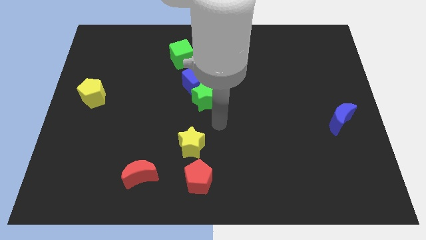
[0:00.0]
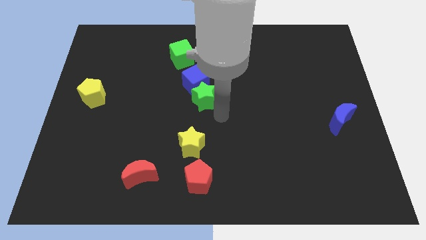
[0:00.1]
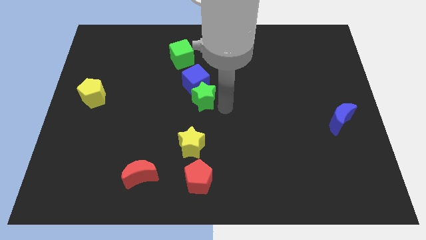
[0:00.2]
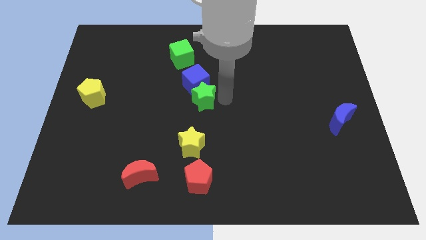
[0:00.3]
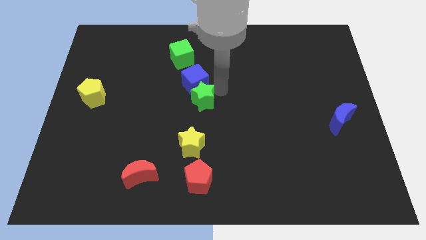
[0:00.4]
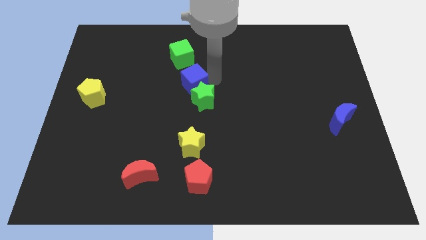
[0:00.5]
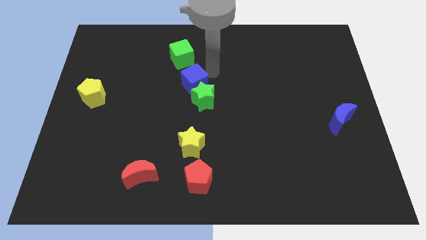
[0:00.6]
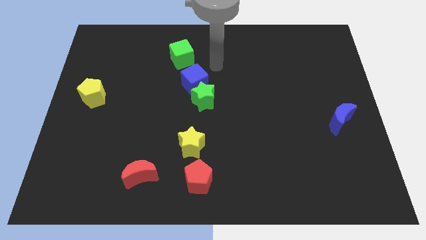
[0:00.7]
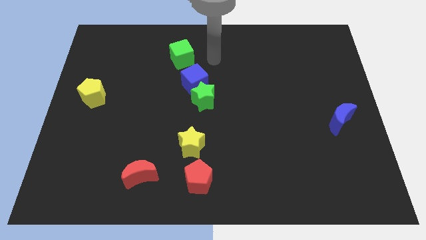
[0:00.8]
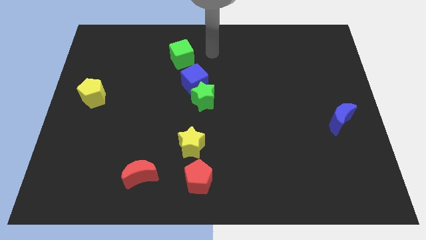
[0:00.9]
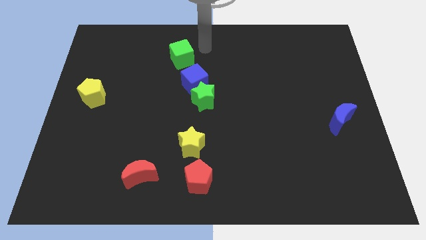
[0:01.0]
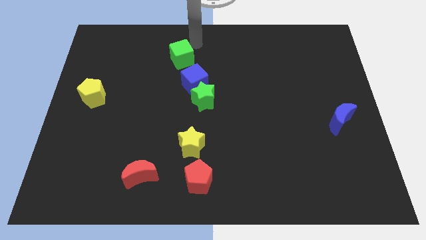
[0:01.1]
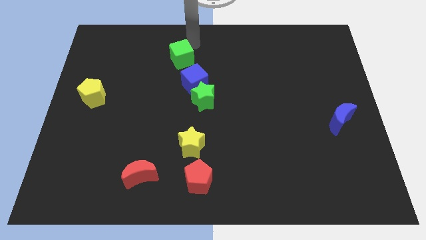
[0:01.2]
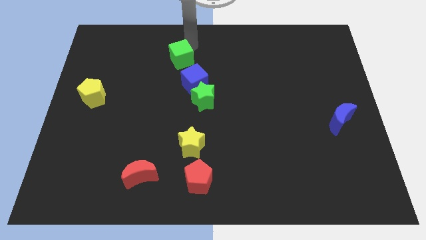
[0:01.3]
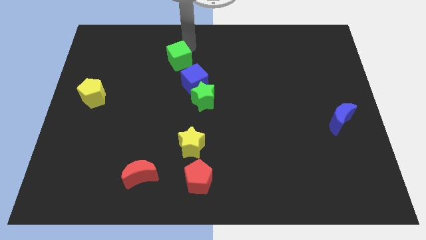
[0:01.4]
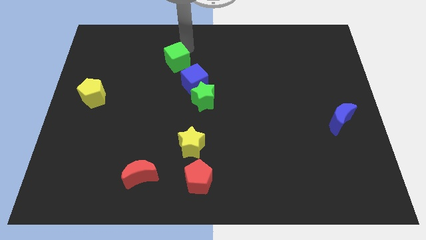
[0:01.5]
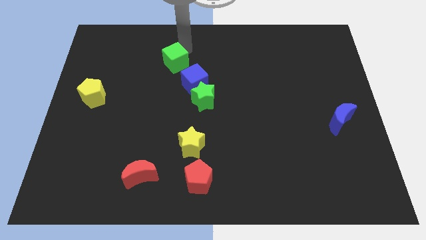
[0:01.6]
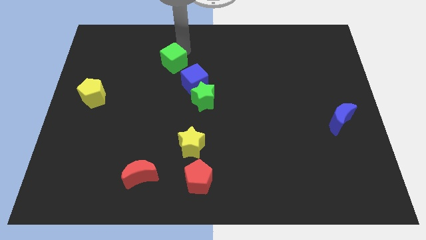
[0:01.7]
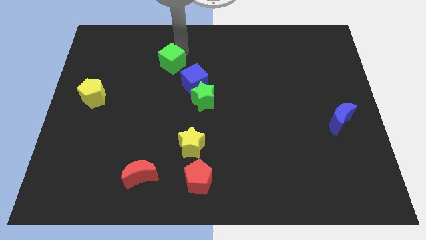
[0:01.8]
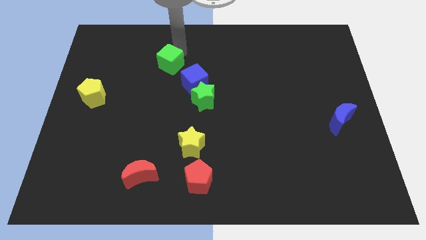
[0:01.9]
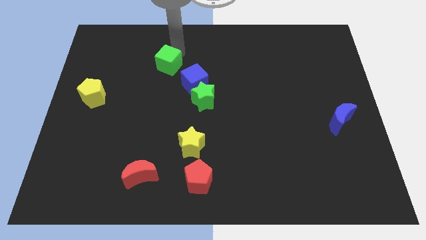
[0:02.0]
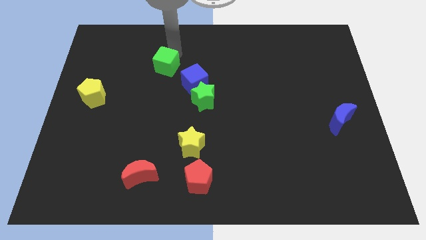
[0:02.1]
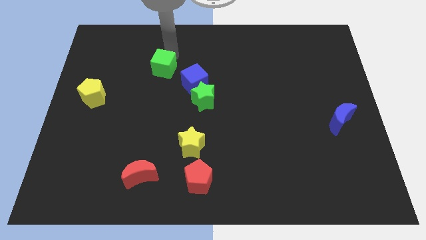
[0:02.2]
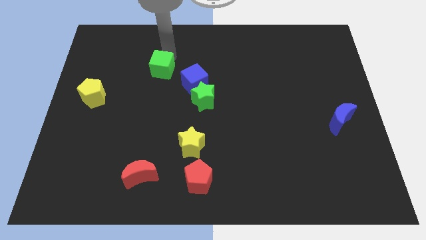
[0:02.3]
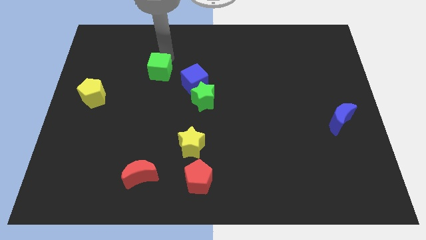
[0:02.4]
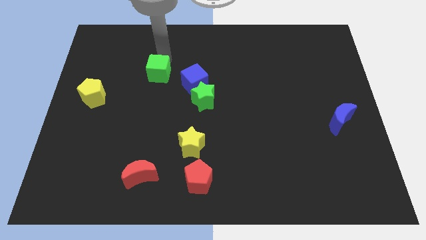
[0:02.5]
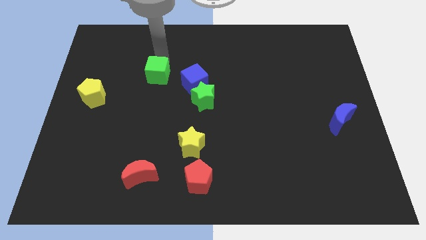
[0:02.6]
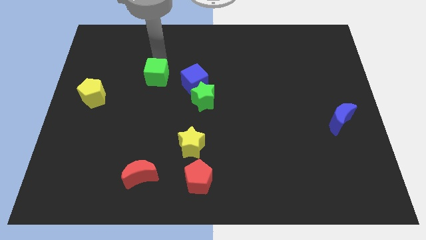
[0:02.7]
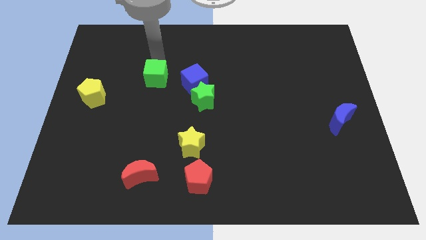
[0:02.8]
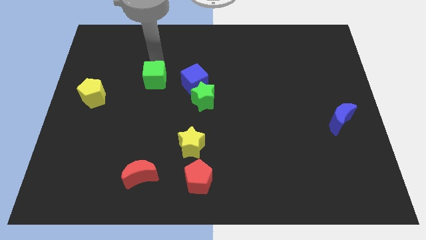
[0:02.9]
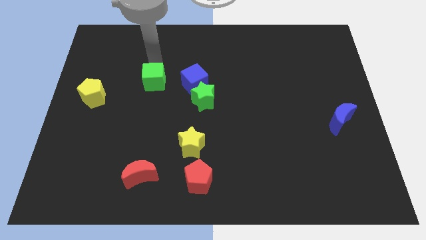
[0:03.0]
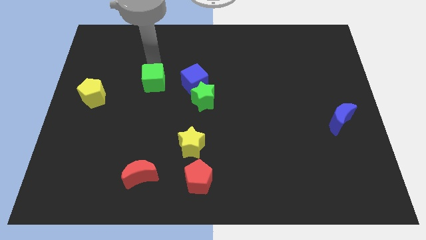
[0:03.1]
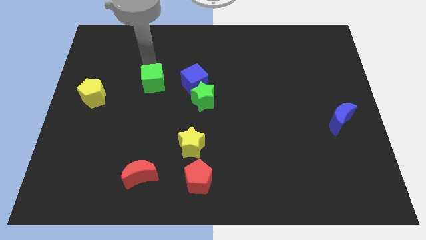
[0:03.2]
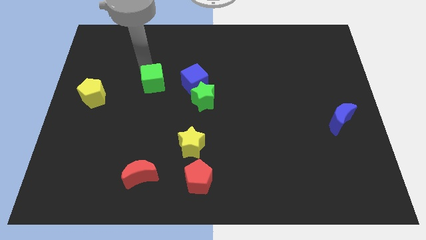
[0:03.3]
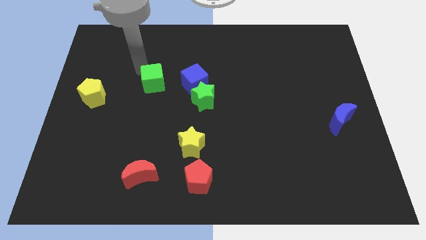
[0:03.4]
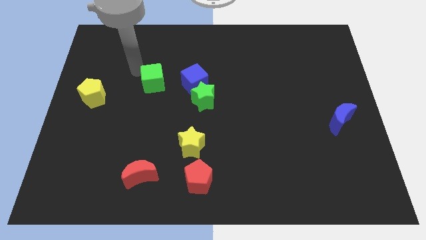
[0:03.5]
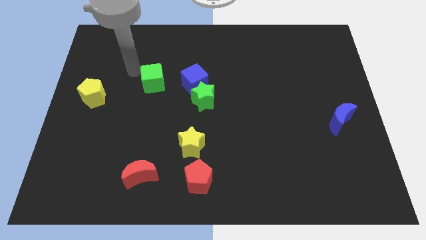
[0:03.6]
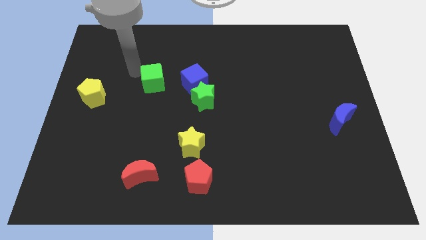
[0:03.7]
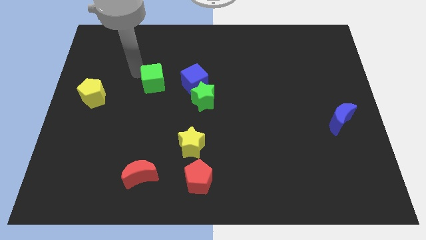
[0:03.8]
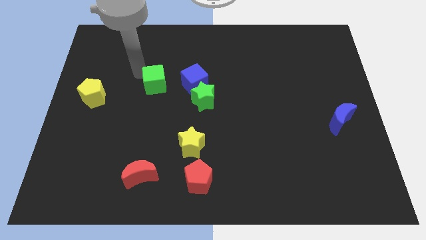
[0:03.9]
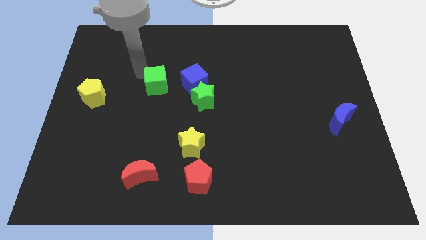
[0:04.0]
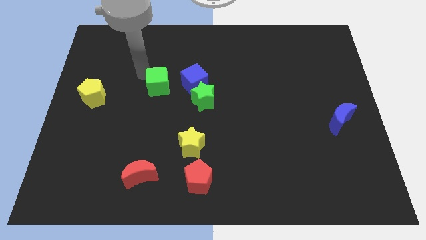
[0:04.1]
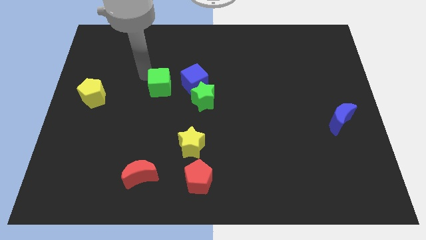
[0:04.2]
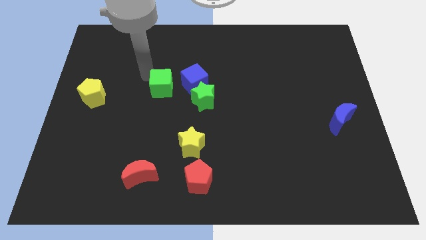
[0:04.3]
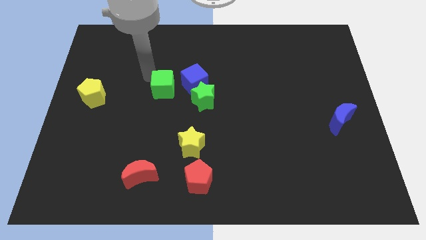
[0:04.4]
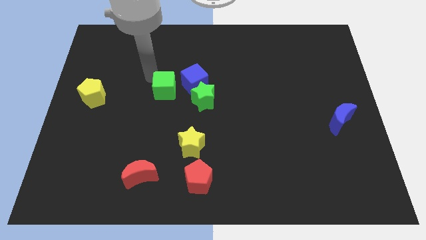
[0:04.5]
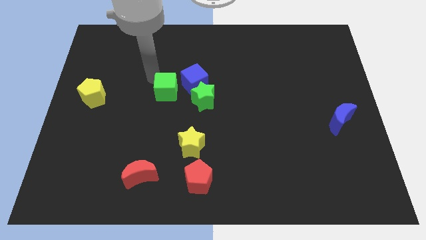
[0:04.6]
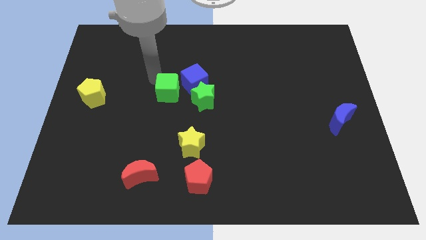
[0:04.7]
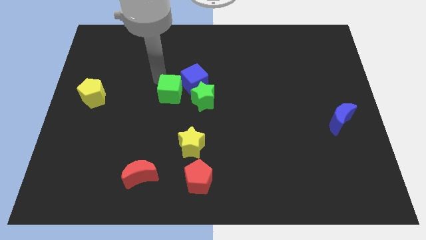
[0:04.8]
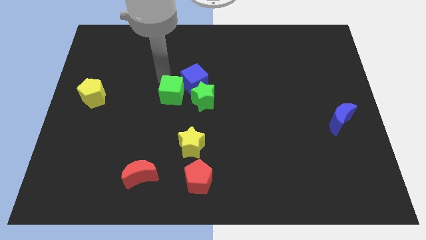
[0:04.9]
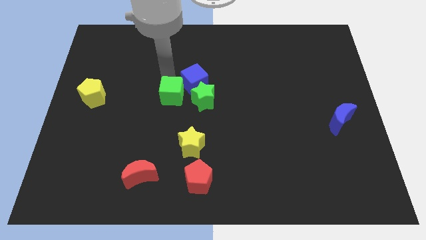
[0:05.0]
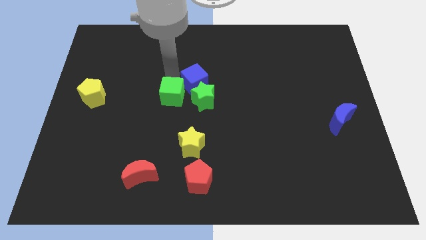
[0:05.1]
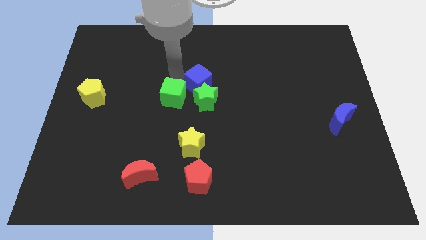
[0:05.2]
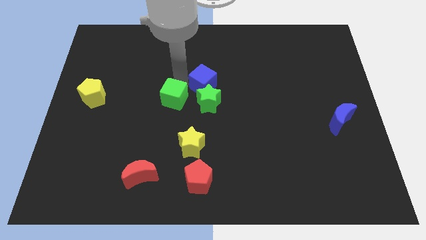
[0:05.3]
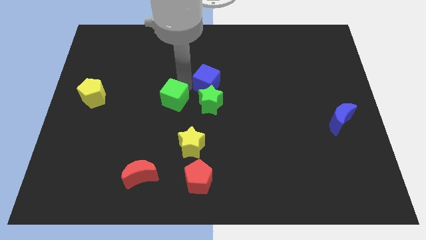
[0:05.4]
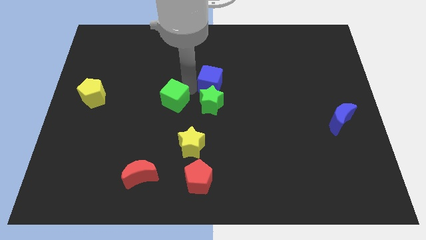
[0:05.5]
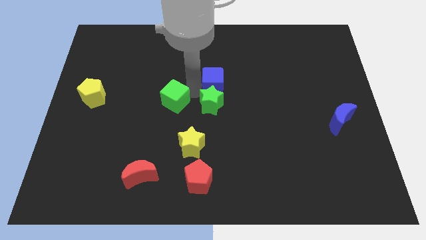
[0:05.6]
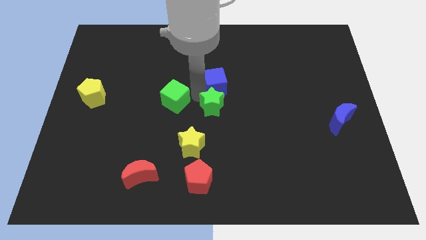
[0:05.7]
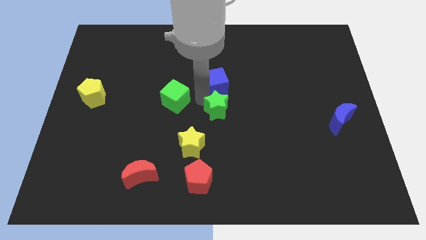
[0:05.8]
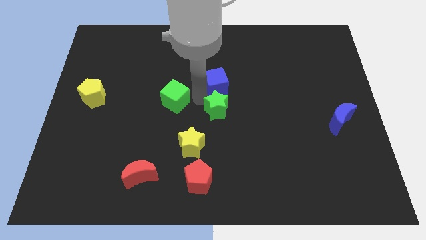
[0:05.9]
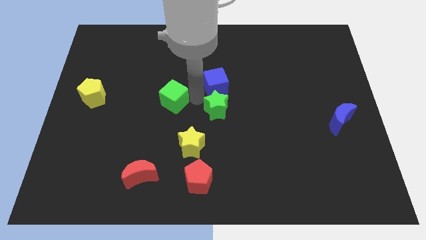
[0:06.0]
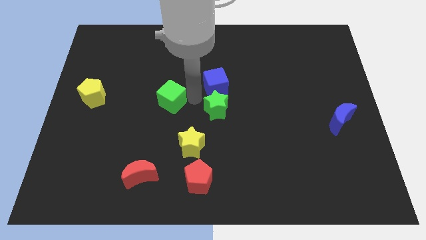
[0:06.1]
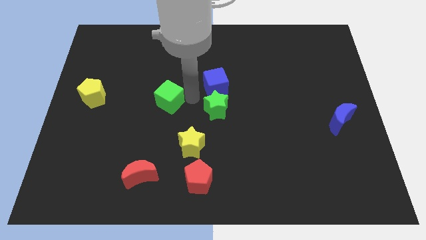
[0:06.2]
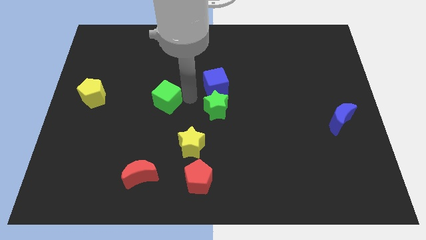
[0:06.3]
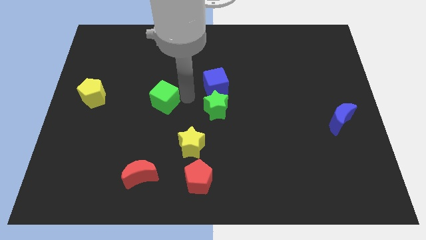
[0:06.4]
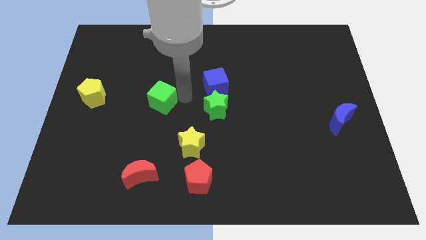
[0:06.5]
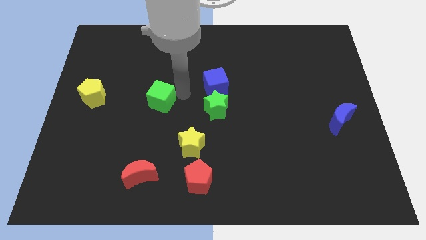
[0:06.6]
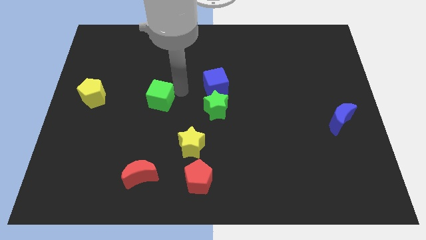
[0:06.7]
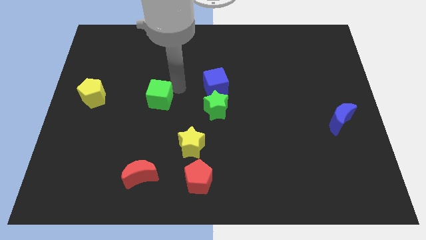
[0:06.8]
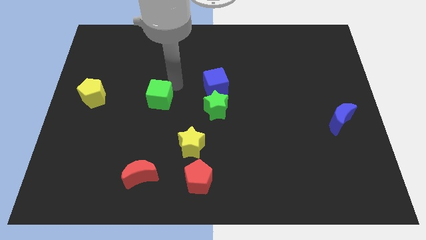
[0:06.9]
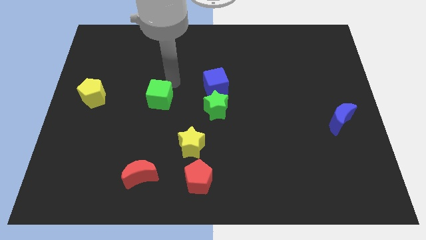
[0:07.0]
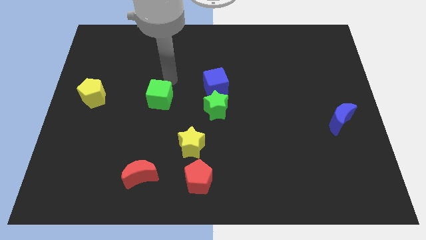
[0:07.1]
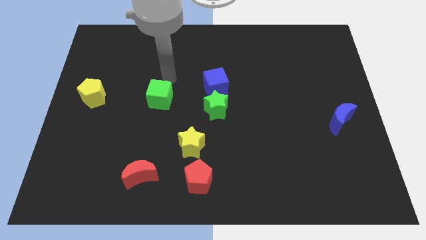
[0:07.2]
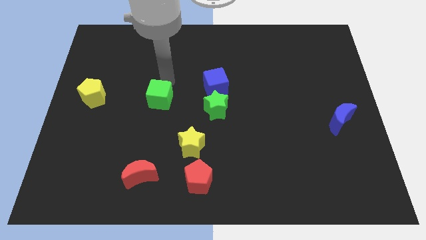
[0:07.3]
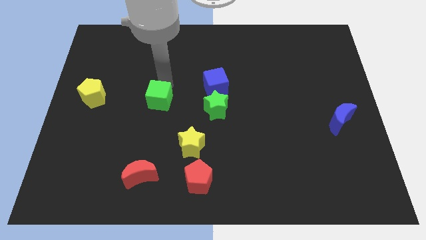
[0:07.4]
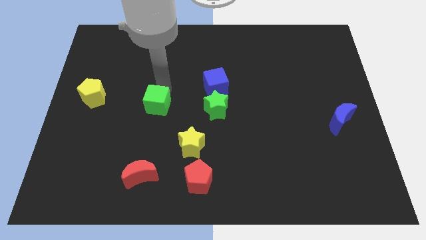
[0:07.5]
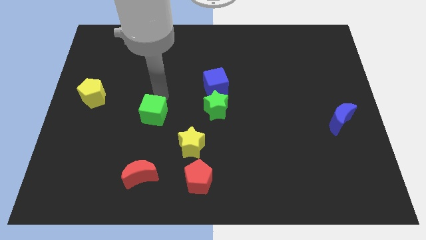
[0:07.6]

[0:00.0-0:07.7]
push the green cube to the top of the red moon
